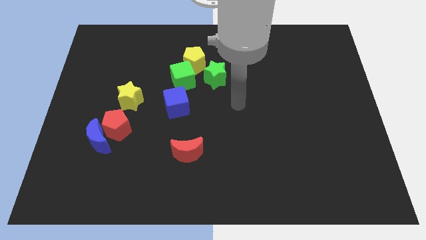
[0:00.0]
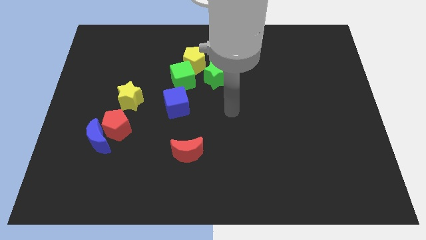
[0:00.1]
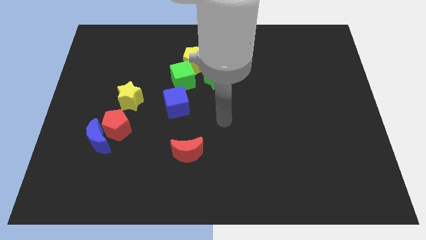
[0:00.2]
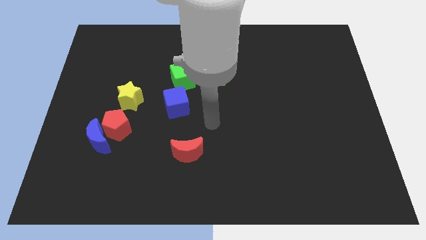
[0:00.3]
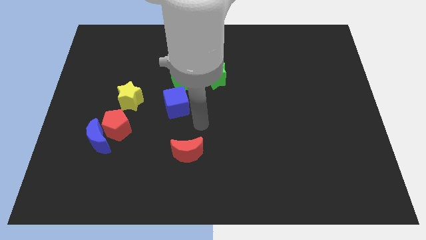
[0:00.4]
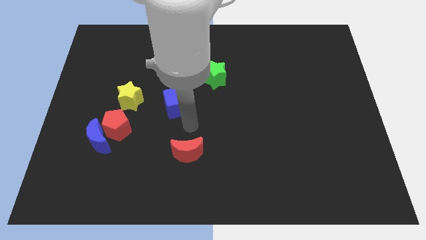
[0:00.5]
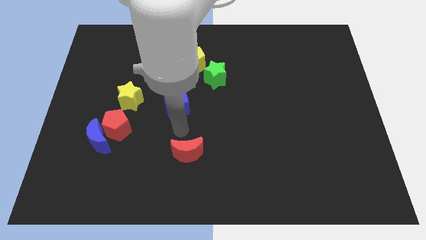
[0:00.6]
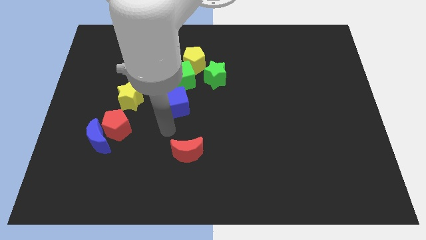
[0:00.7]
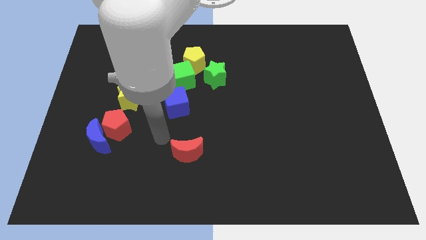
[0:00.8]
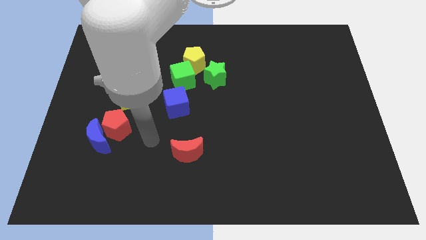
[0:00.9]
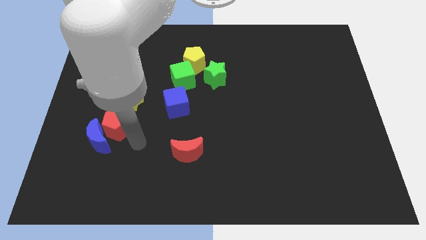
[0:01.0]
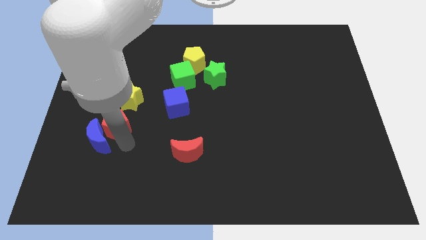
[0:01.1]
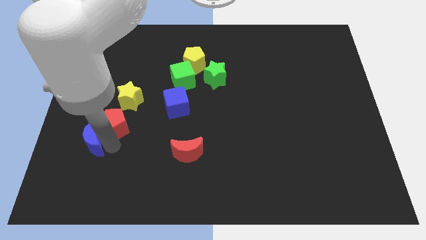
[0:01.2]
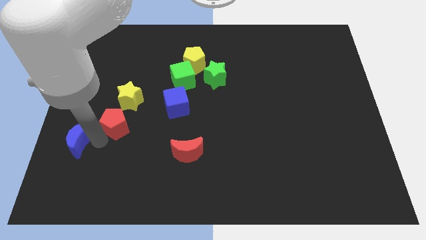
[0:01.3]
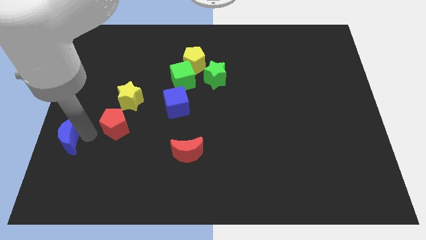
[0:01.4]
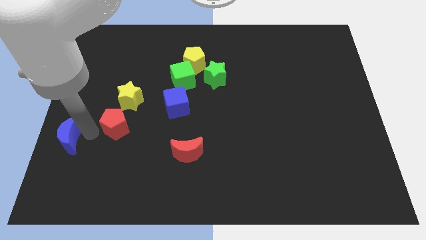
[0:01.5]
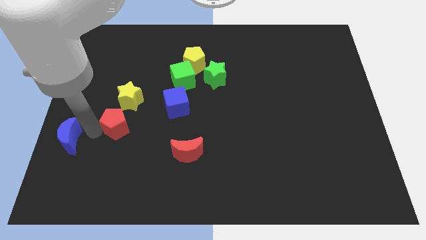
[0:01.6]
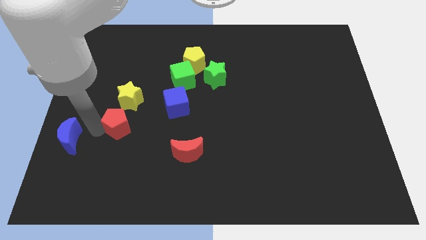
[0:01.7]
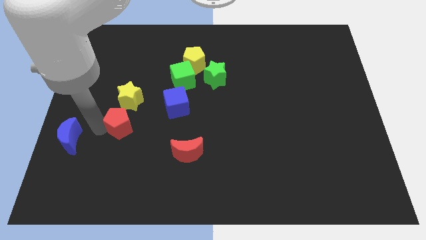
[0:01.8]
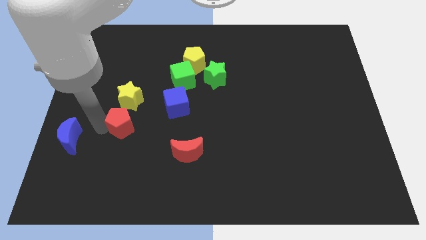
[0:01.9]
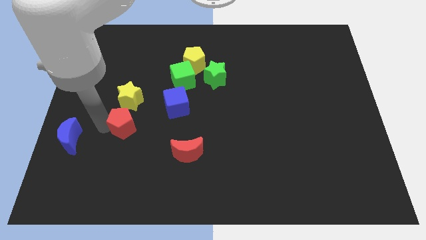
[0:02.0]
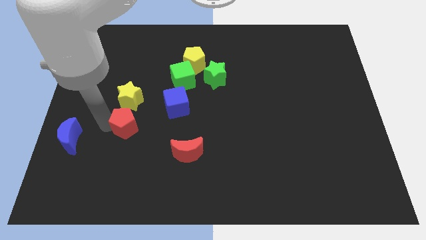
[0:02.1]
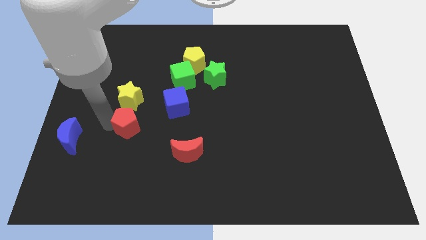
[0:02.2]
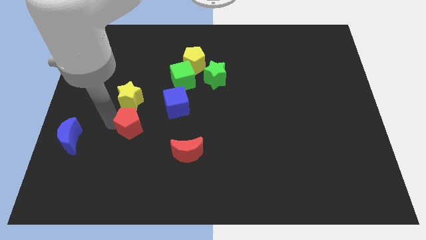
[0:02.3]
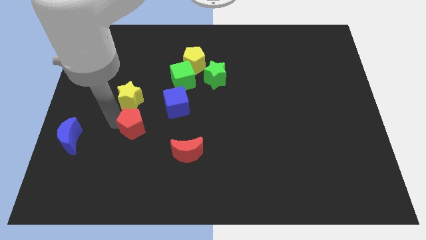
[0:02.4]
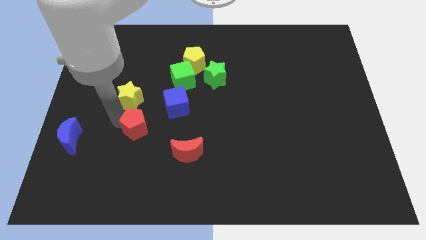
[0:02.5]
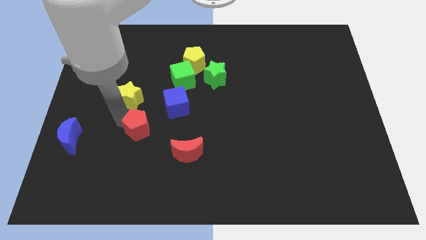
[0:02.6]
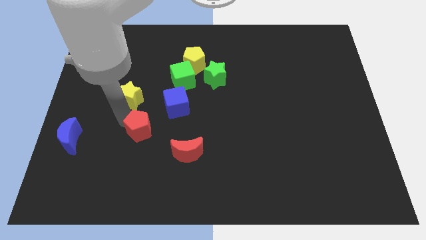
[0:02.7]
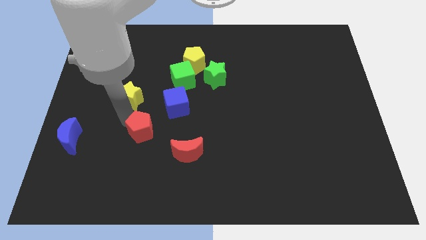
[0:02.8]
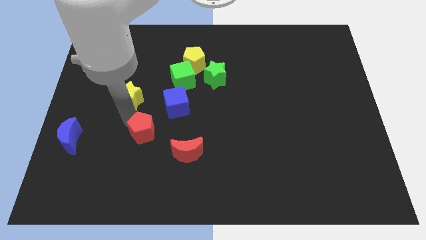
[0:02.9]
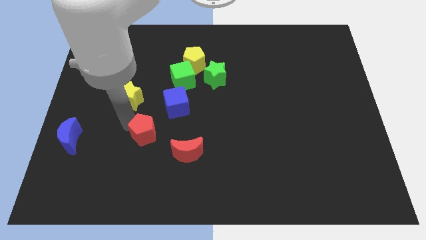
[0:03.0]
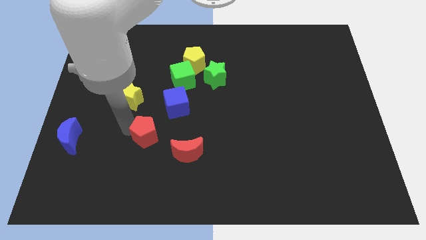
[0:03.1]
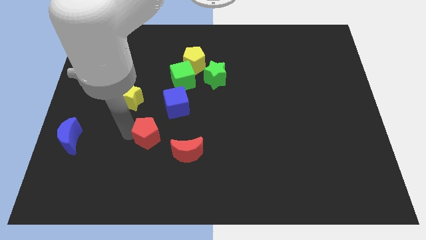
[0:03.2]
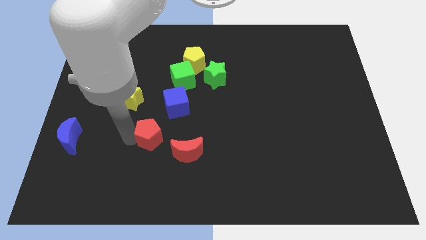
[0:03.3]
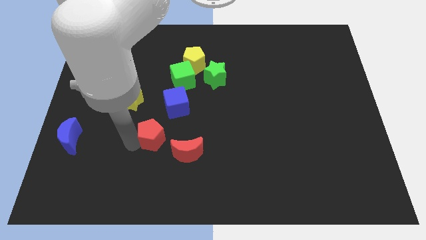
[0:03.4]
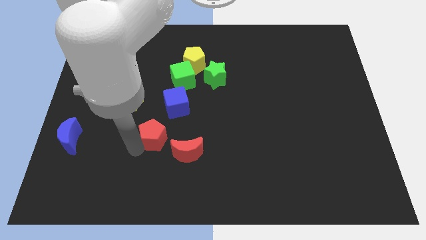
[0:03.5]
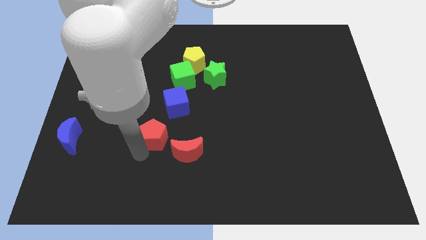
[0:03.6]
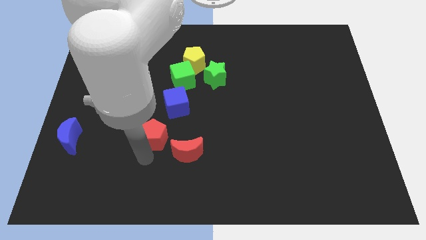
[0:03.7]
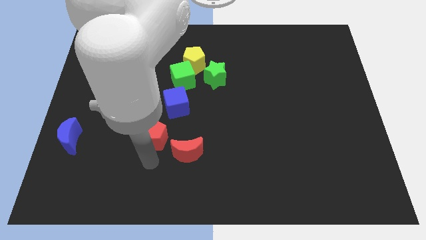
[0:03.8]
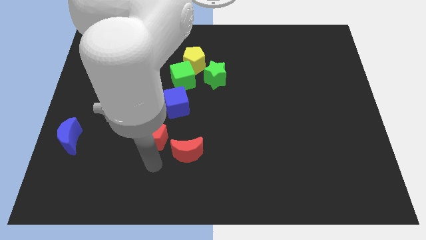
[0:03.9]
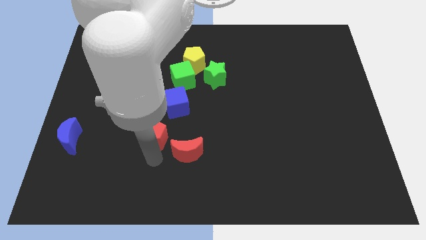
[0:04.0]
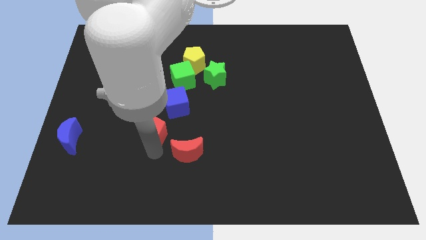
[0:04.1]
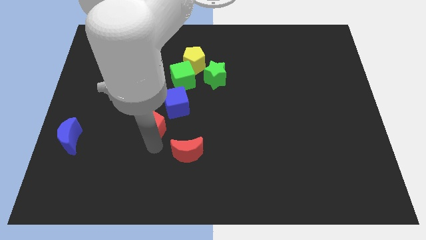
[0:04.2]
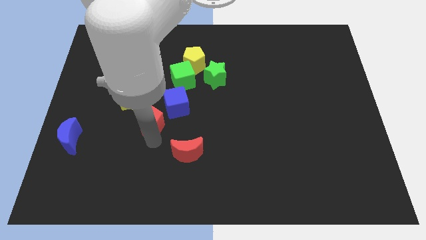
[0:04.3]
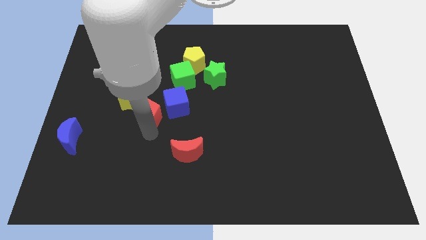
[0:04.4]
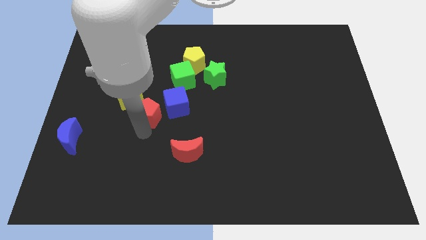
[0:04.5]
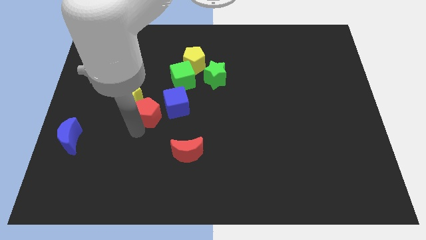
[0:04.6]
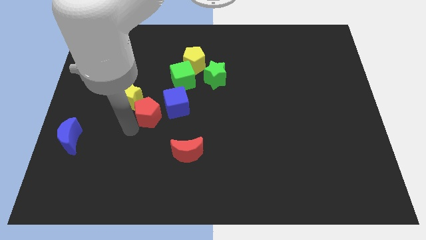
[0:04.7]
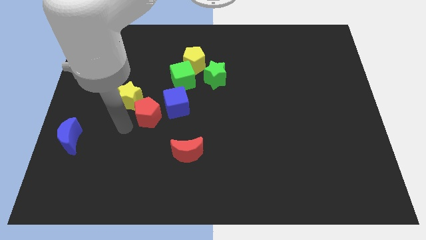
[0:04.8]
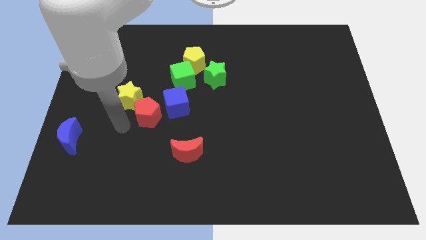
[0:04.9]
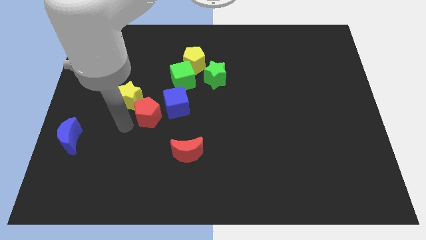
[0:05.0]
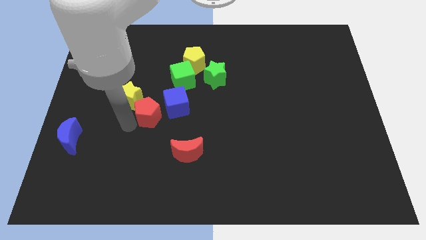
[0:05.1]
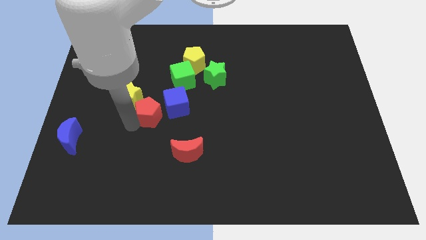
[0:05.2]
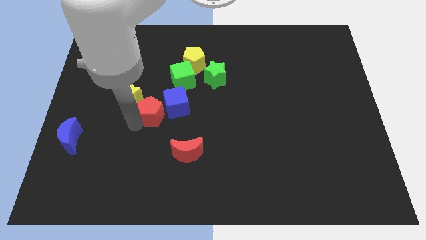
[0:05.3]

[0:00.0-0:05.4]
slide the red pentagon next to the blue cube

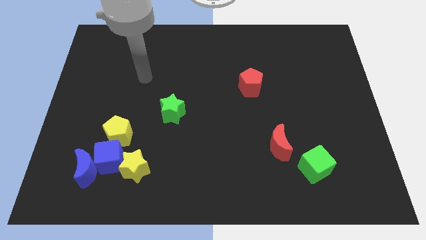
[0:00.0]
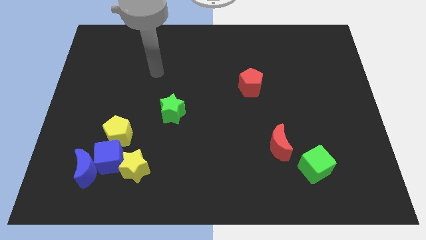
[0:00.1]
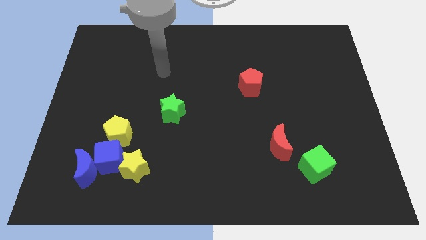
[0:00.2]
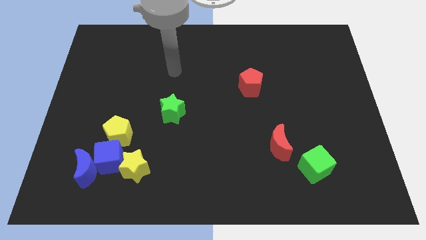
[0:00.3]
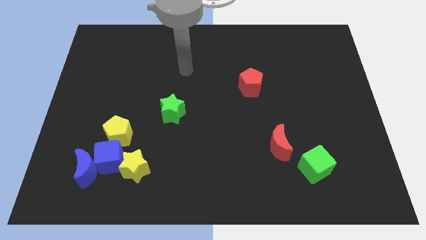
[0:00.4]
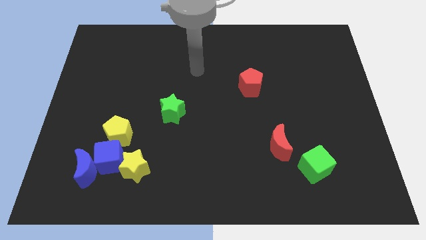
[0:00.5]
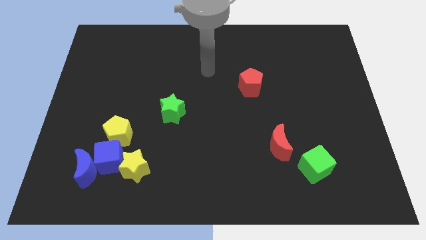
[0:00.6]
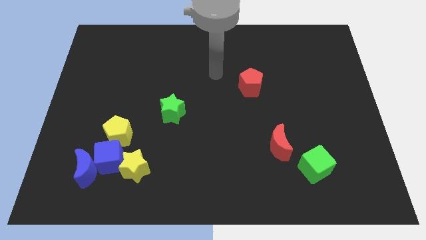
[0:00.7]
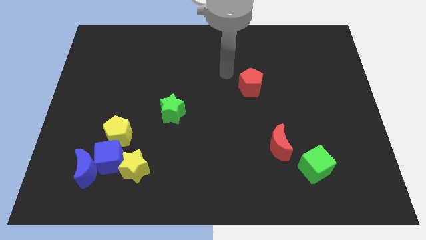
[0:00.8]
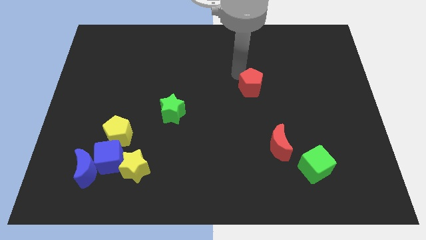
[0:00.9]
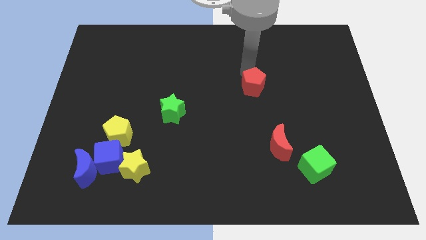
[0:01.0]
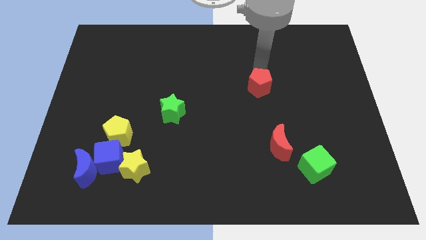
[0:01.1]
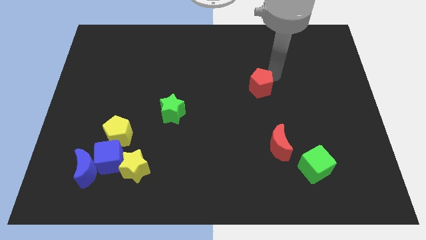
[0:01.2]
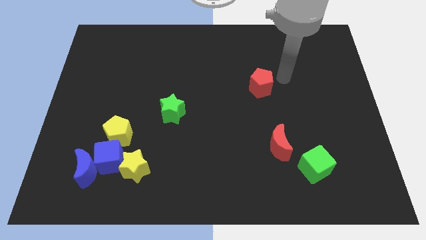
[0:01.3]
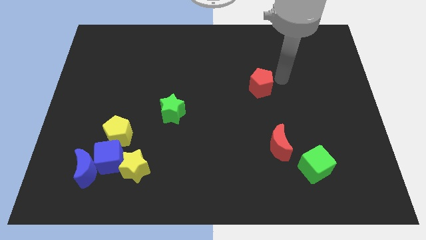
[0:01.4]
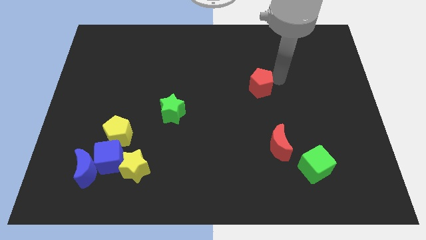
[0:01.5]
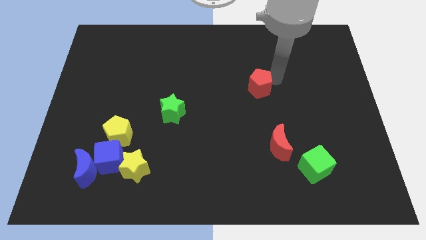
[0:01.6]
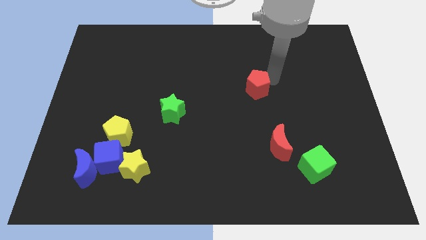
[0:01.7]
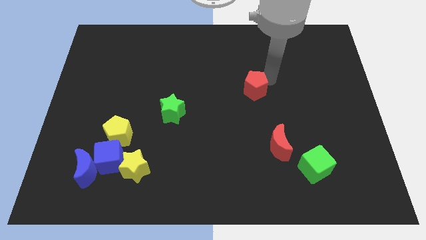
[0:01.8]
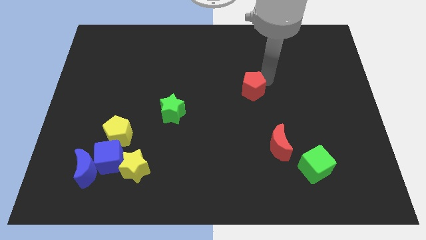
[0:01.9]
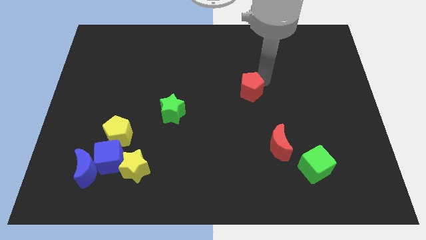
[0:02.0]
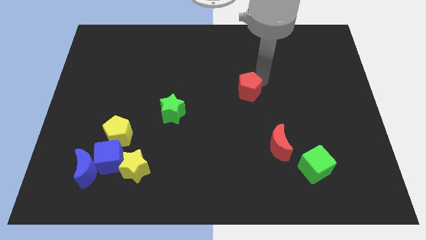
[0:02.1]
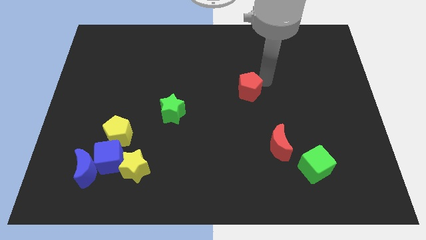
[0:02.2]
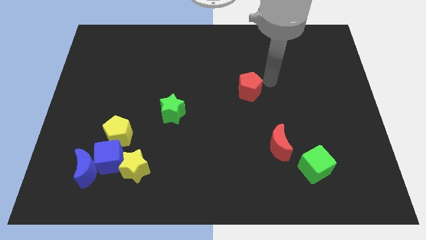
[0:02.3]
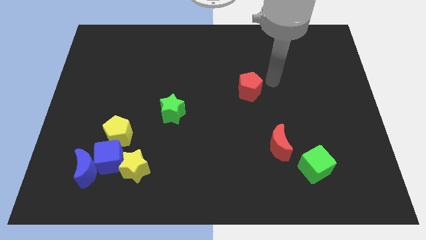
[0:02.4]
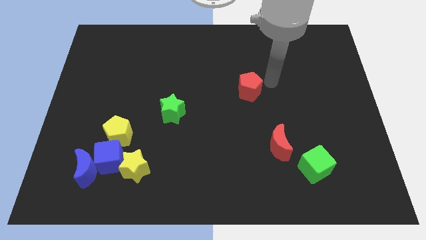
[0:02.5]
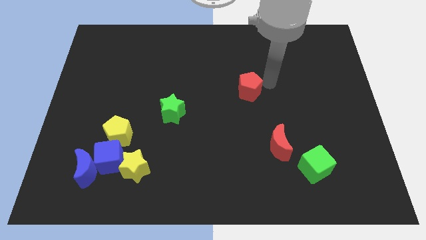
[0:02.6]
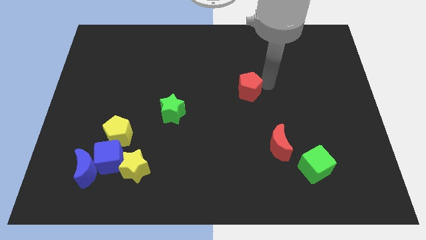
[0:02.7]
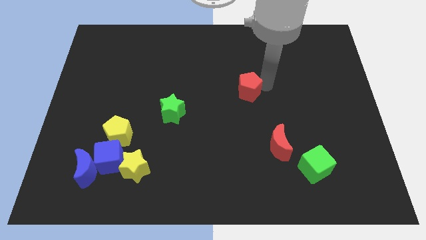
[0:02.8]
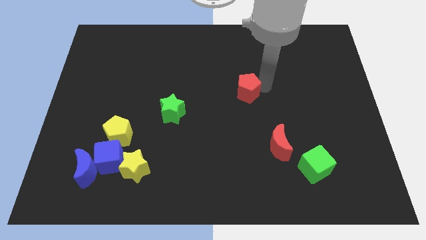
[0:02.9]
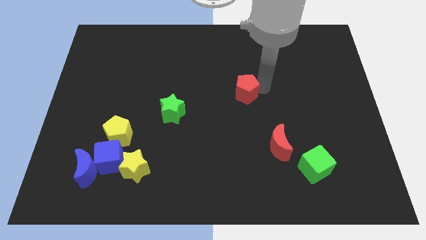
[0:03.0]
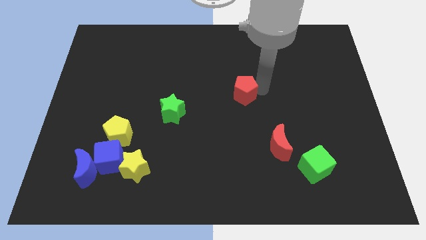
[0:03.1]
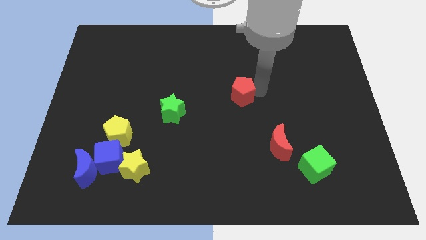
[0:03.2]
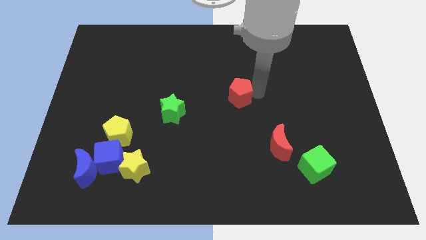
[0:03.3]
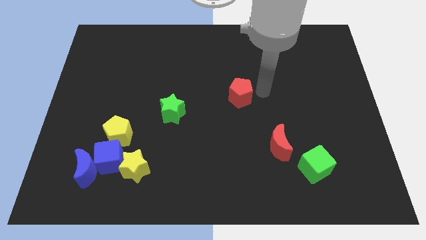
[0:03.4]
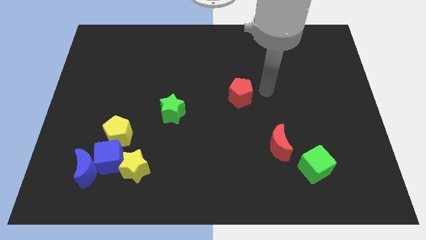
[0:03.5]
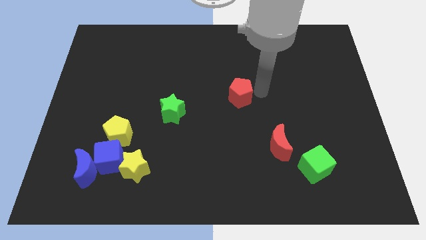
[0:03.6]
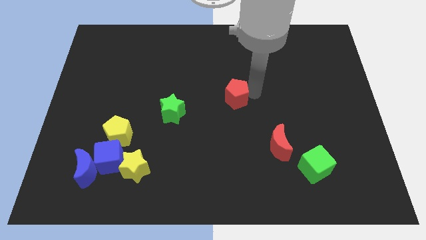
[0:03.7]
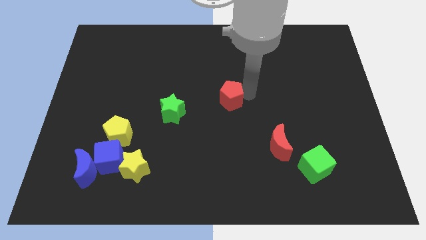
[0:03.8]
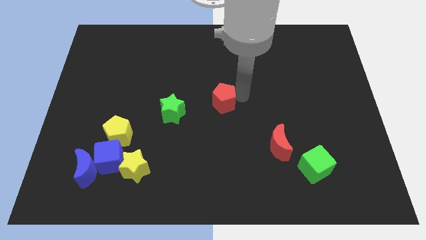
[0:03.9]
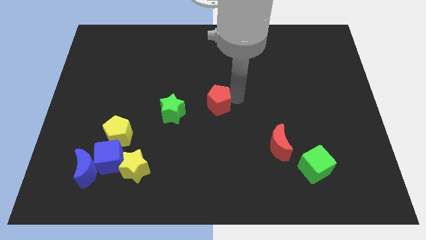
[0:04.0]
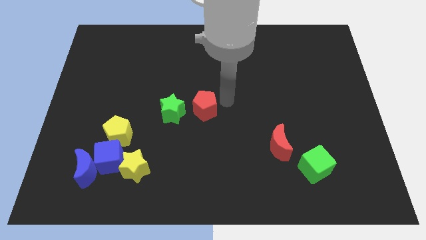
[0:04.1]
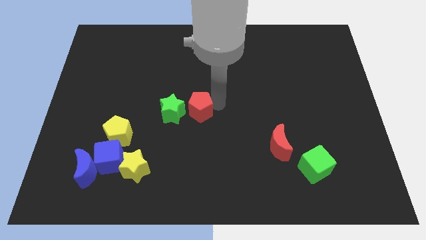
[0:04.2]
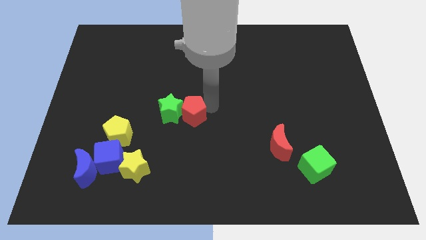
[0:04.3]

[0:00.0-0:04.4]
put the red pentagon to the green star
